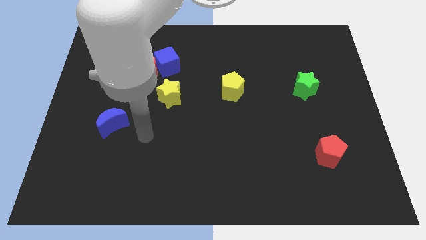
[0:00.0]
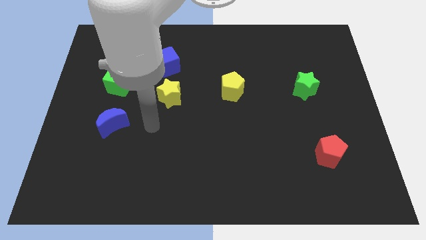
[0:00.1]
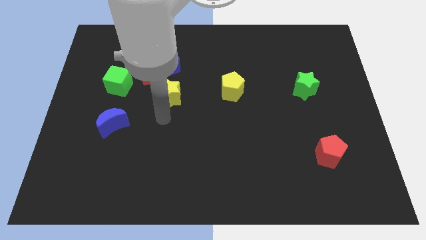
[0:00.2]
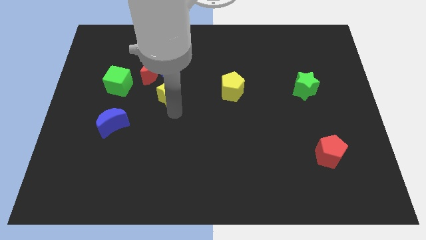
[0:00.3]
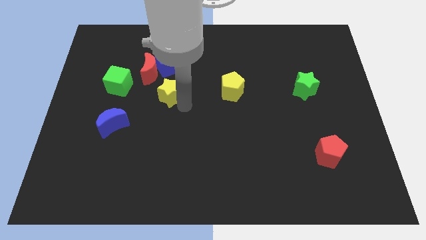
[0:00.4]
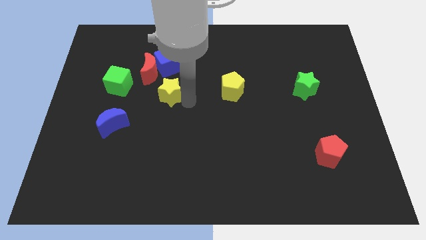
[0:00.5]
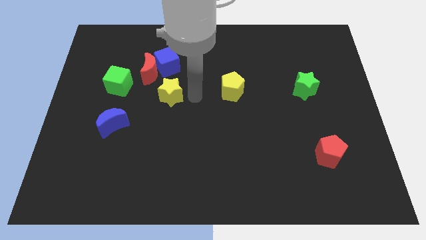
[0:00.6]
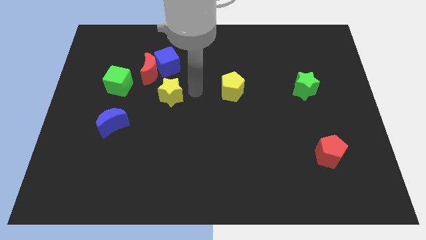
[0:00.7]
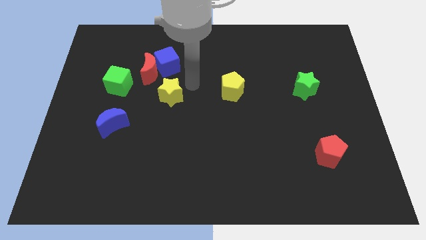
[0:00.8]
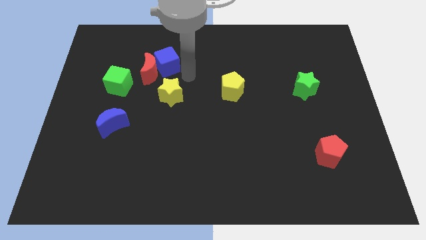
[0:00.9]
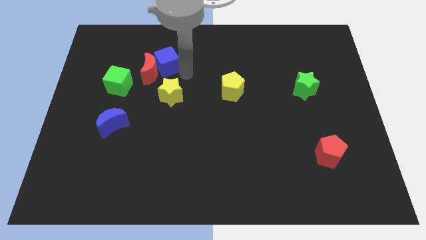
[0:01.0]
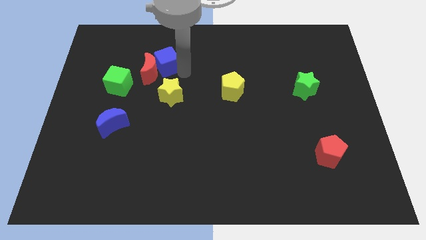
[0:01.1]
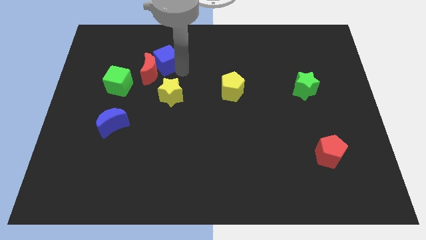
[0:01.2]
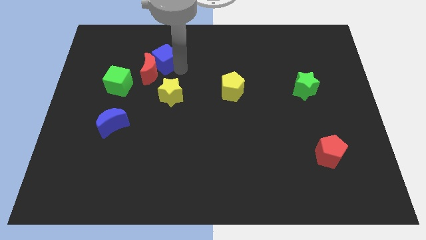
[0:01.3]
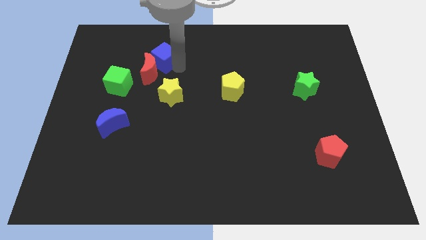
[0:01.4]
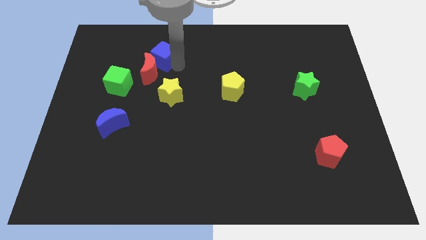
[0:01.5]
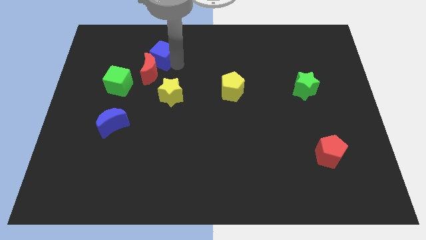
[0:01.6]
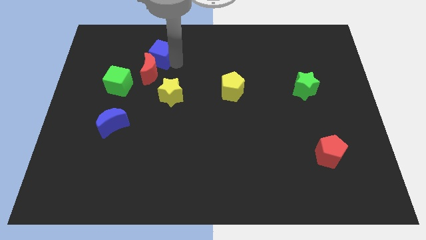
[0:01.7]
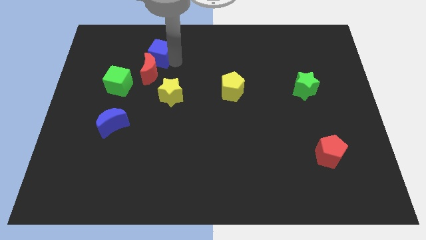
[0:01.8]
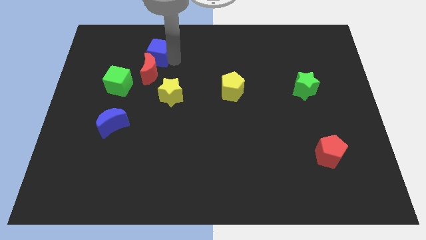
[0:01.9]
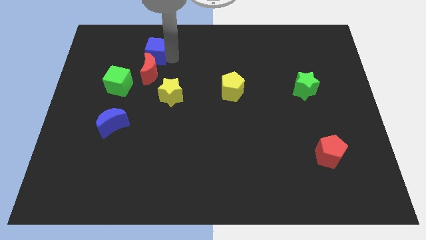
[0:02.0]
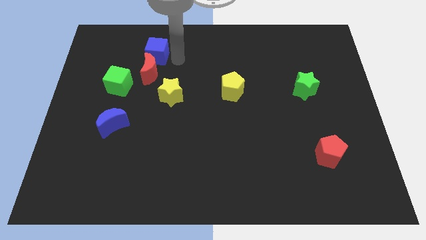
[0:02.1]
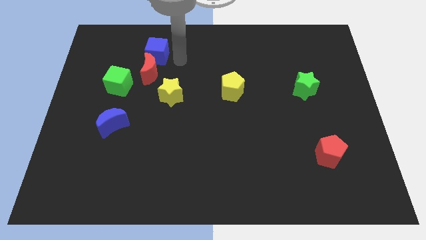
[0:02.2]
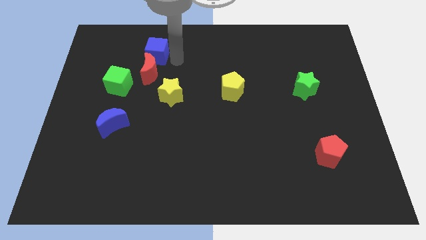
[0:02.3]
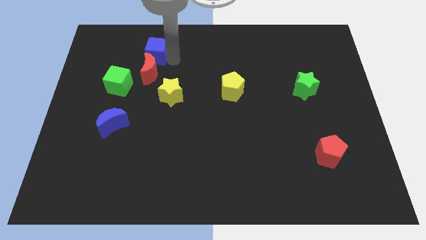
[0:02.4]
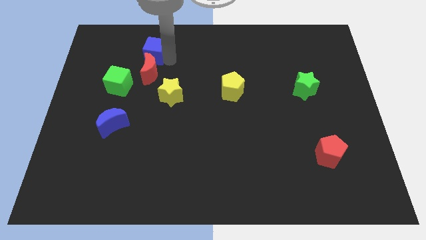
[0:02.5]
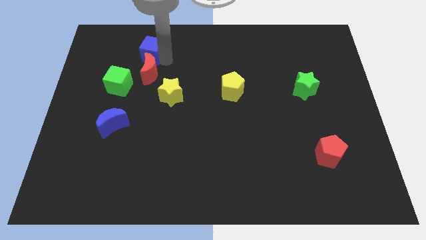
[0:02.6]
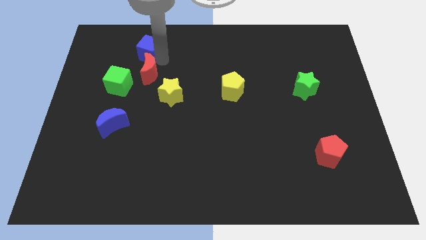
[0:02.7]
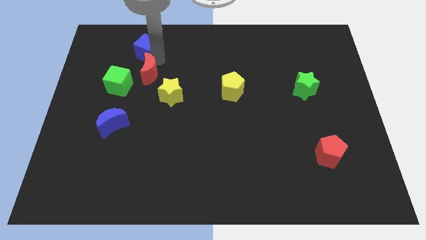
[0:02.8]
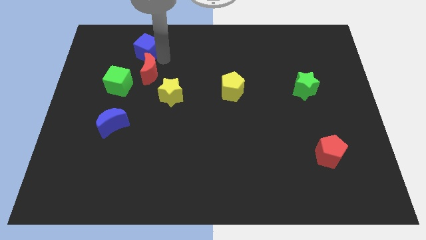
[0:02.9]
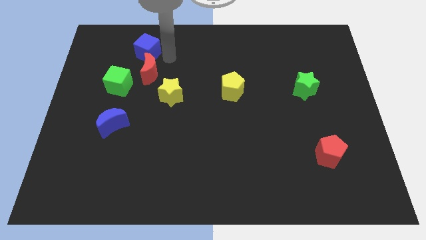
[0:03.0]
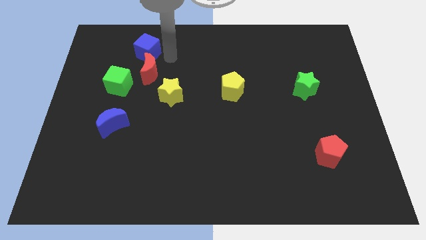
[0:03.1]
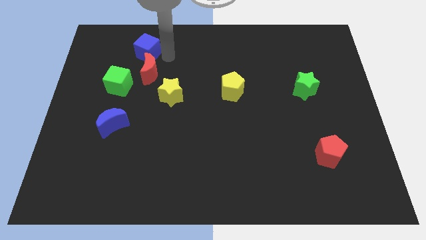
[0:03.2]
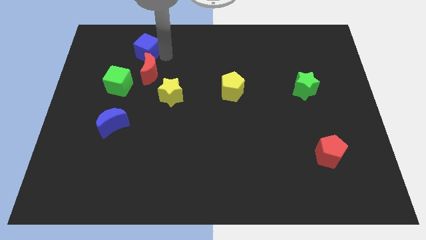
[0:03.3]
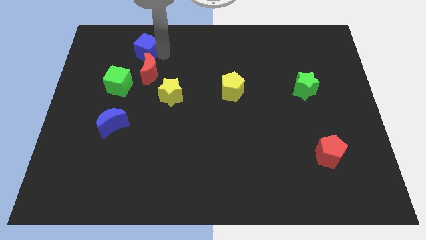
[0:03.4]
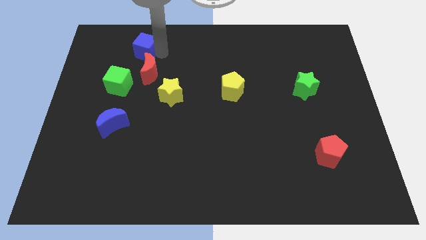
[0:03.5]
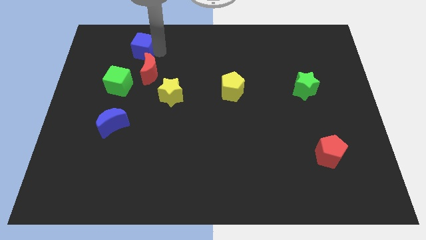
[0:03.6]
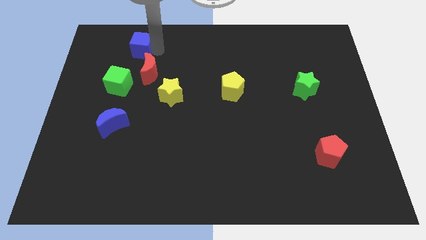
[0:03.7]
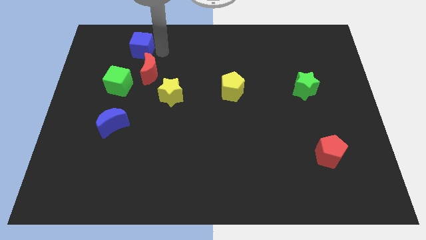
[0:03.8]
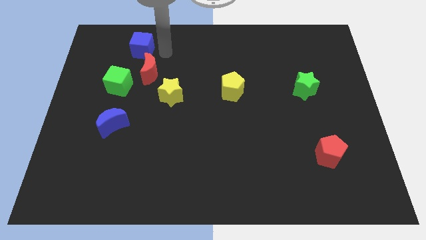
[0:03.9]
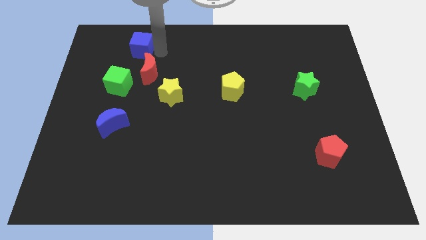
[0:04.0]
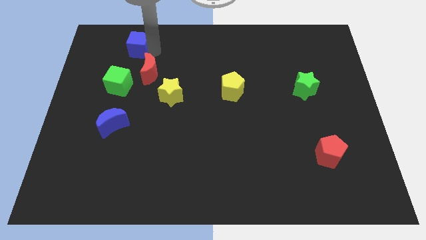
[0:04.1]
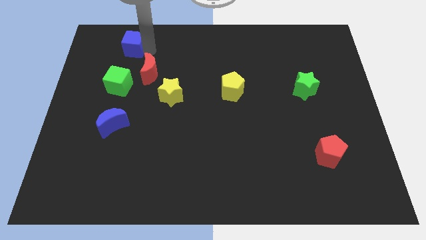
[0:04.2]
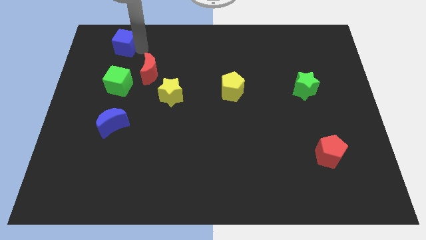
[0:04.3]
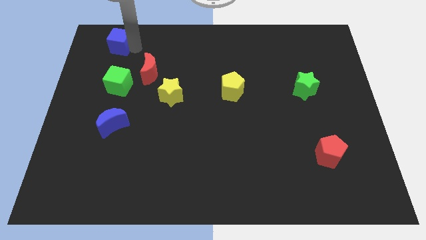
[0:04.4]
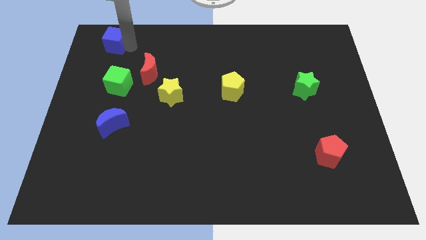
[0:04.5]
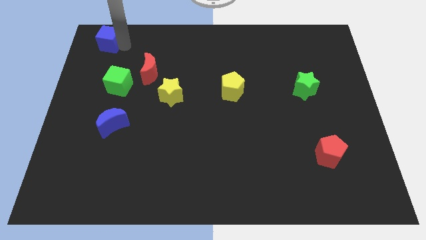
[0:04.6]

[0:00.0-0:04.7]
put the blue cube to the top left corner

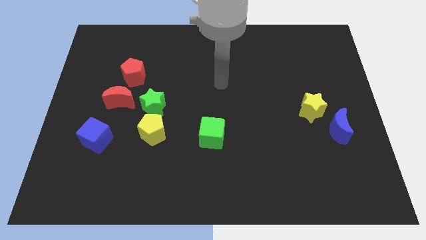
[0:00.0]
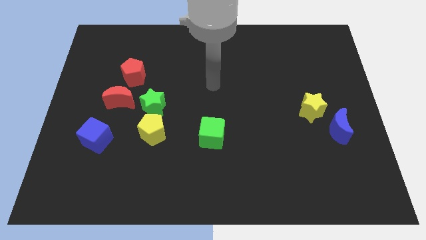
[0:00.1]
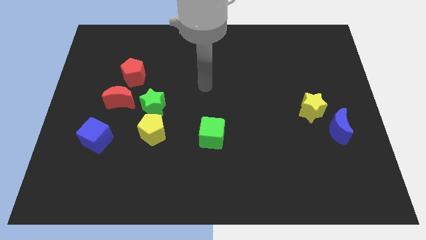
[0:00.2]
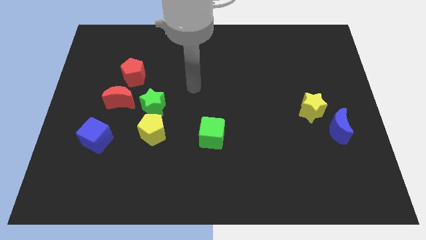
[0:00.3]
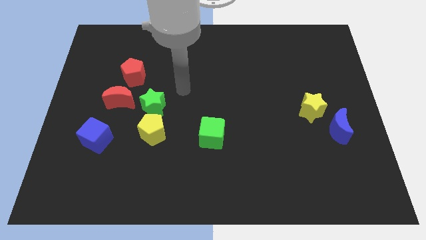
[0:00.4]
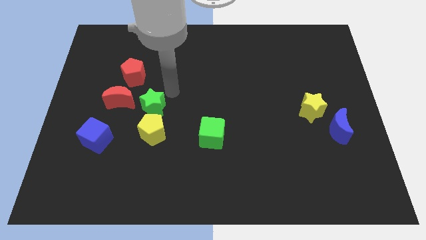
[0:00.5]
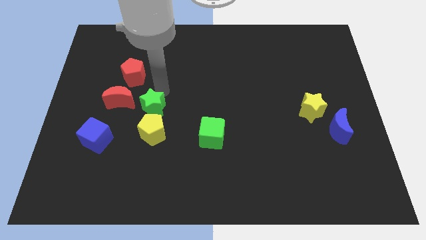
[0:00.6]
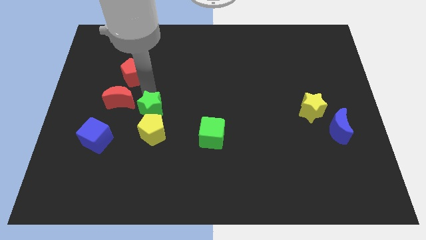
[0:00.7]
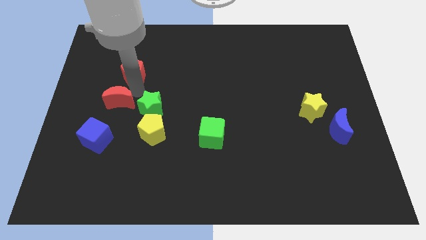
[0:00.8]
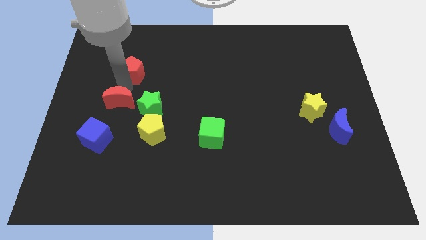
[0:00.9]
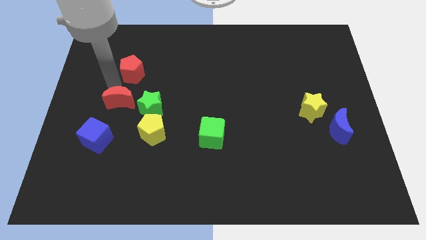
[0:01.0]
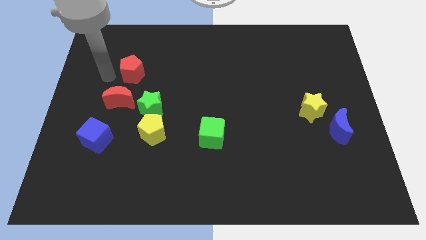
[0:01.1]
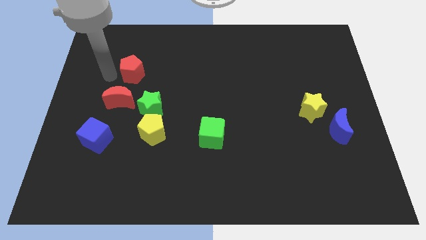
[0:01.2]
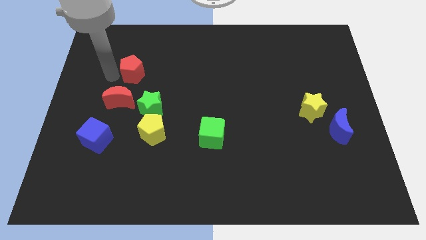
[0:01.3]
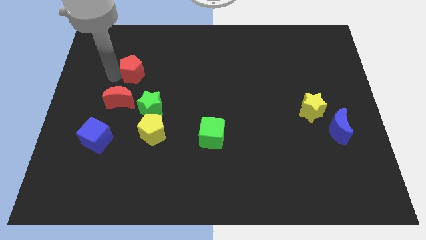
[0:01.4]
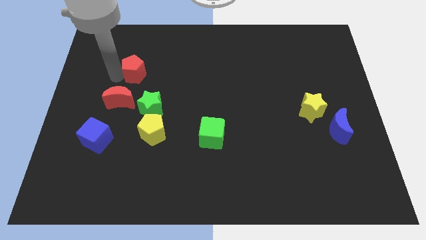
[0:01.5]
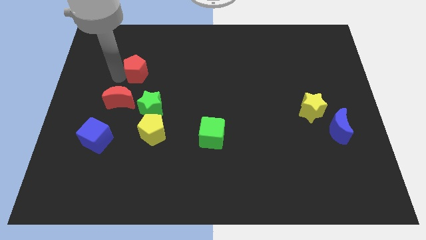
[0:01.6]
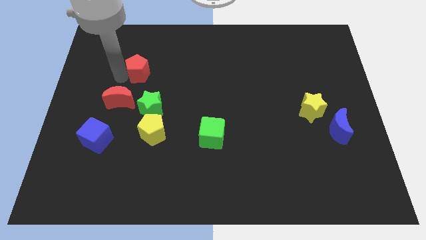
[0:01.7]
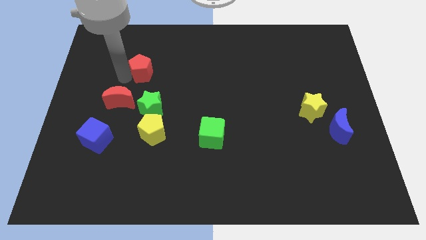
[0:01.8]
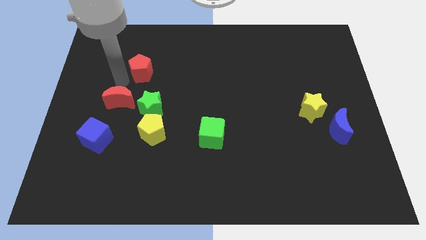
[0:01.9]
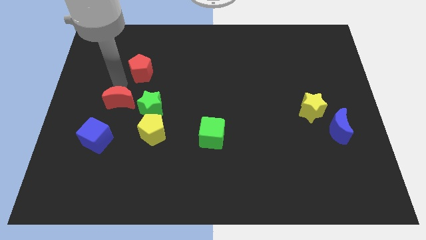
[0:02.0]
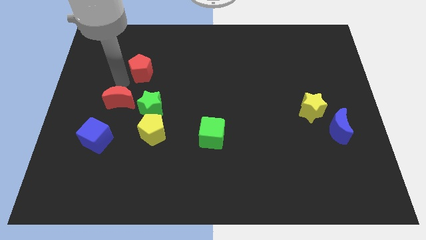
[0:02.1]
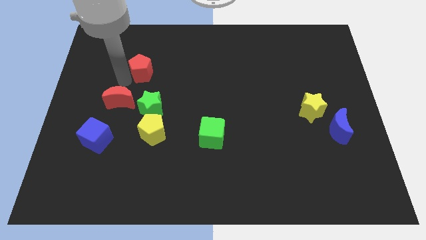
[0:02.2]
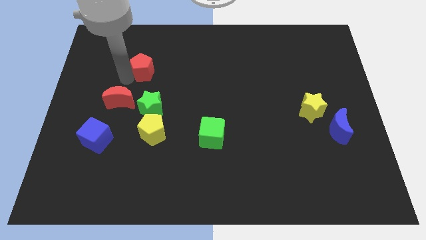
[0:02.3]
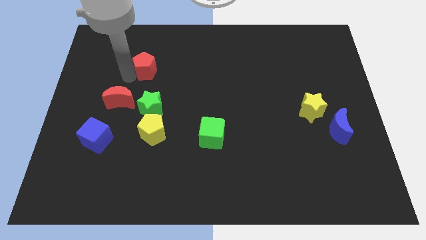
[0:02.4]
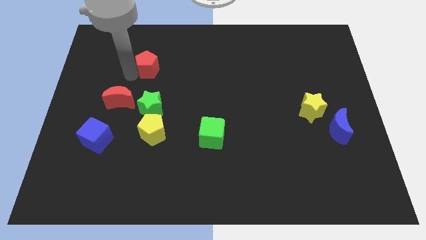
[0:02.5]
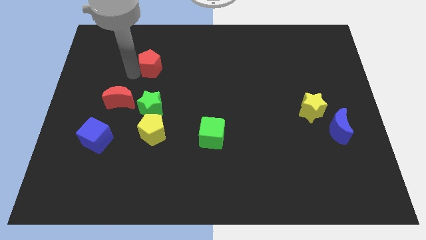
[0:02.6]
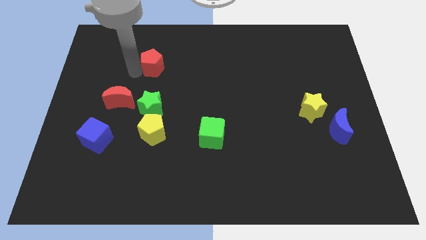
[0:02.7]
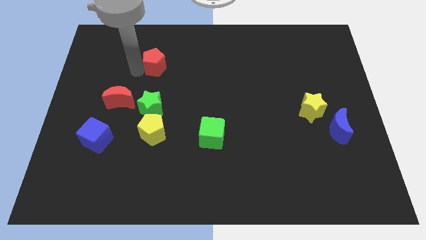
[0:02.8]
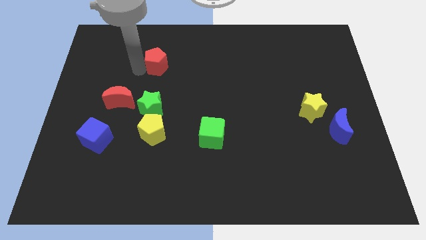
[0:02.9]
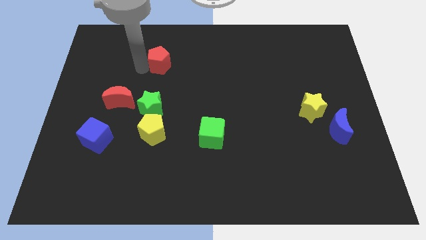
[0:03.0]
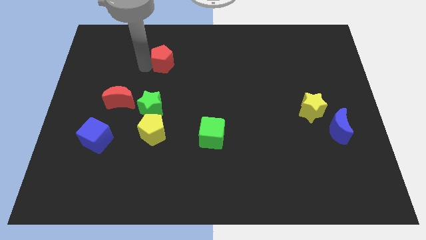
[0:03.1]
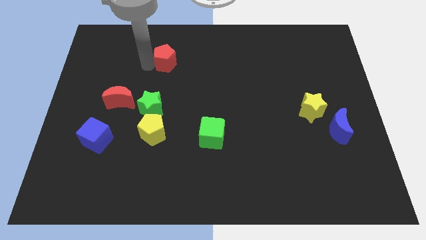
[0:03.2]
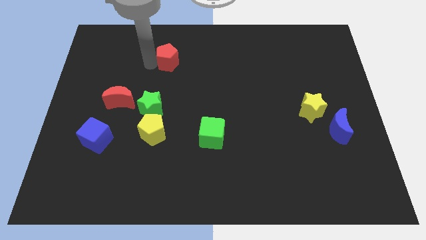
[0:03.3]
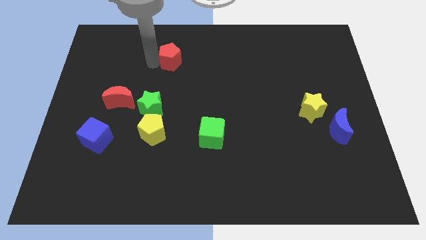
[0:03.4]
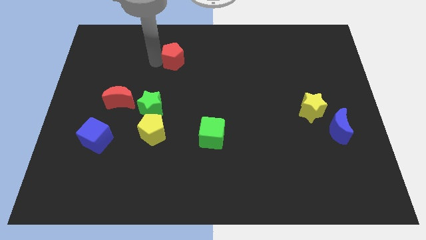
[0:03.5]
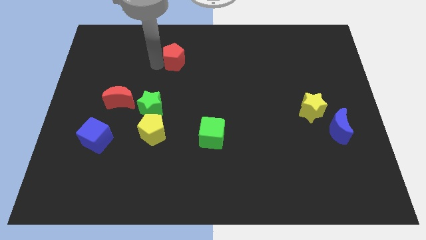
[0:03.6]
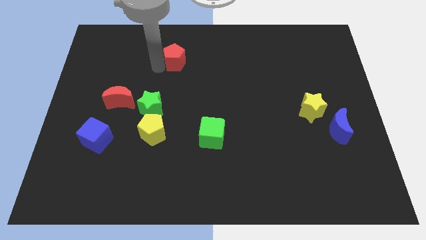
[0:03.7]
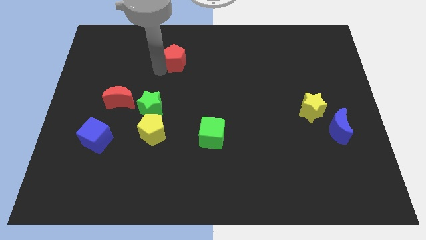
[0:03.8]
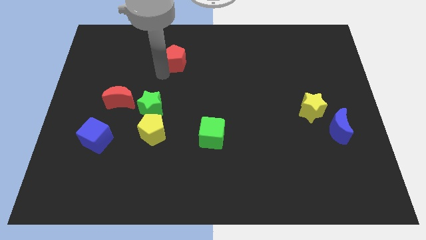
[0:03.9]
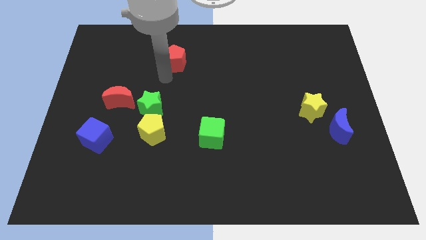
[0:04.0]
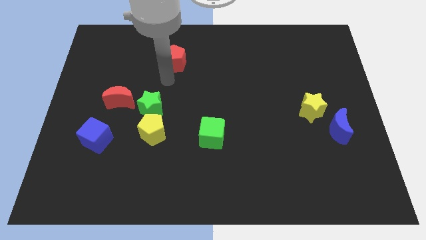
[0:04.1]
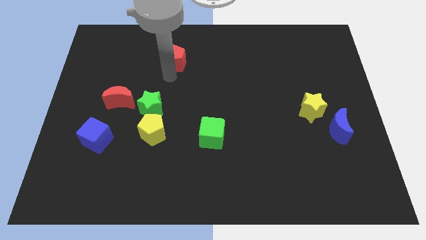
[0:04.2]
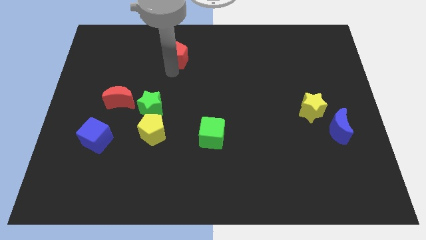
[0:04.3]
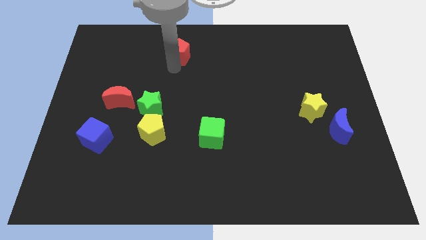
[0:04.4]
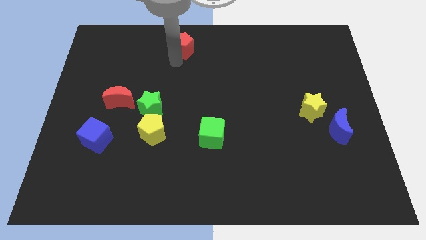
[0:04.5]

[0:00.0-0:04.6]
put the red pentagon to the top
